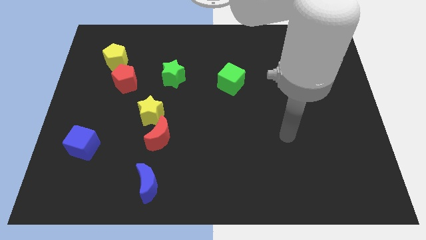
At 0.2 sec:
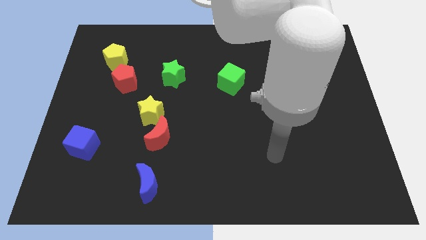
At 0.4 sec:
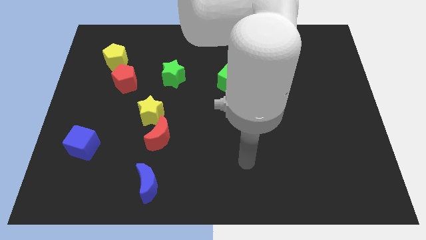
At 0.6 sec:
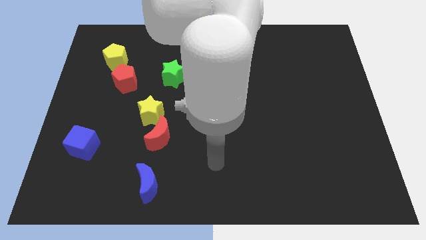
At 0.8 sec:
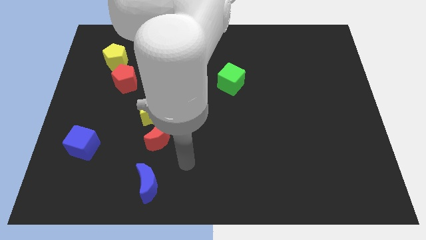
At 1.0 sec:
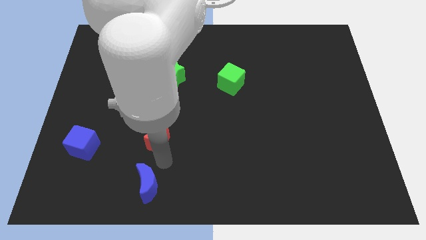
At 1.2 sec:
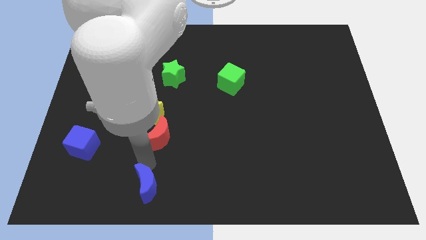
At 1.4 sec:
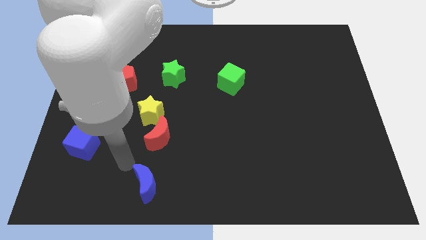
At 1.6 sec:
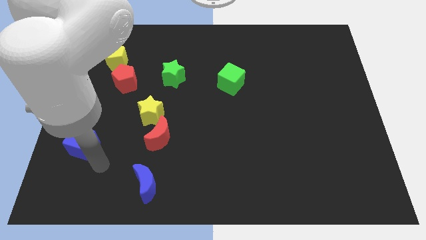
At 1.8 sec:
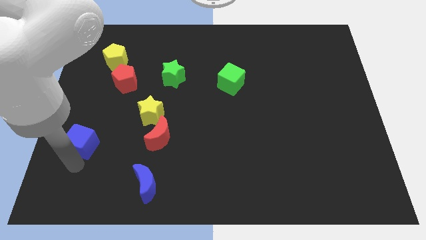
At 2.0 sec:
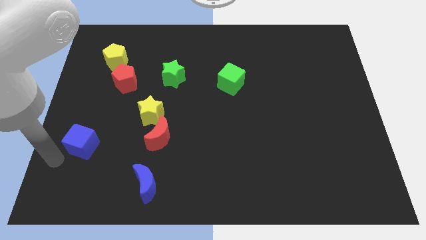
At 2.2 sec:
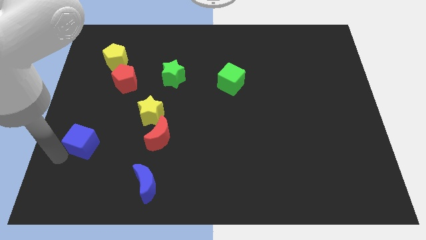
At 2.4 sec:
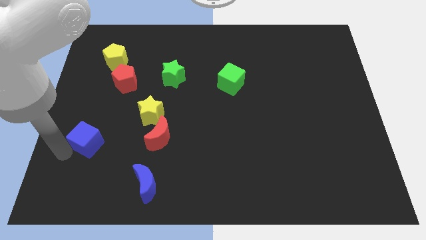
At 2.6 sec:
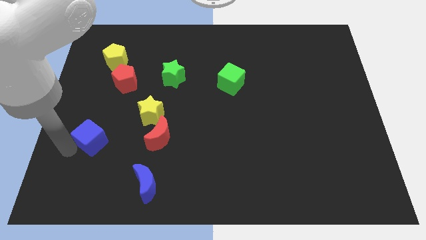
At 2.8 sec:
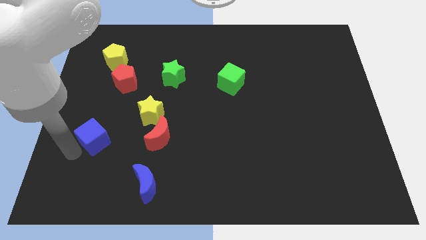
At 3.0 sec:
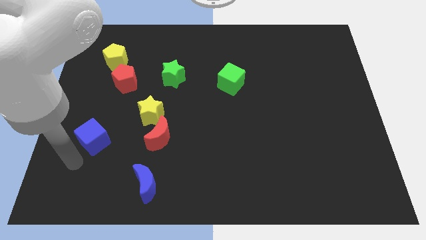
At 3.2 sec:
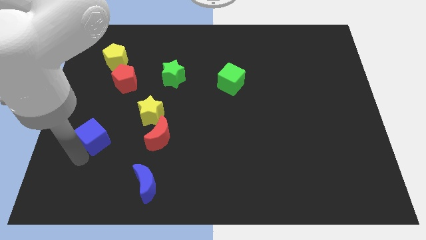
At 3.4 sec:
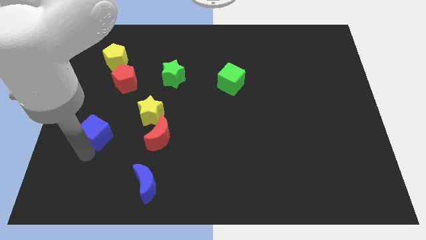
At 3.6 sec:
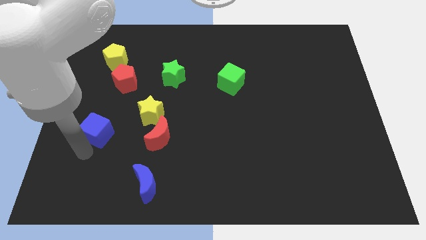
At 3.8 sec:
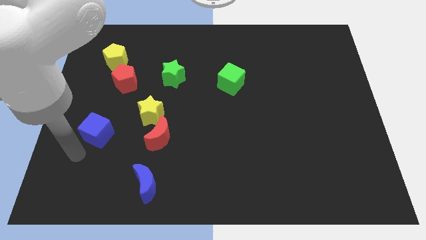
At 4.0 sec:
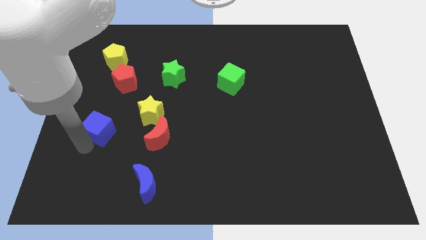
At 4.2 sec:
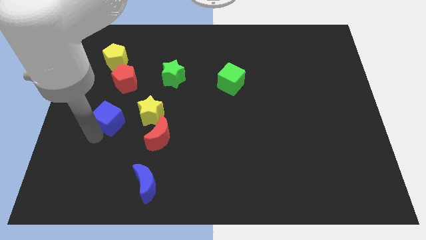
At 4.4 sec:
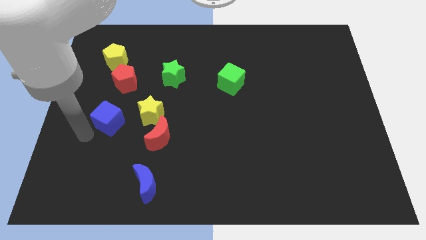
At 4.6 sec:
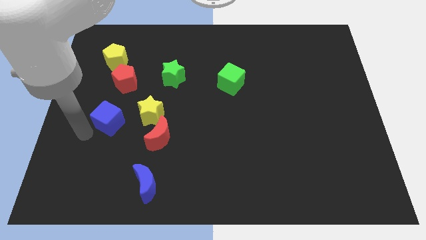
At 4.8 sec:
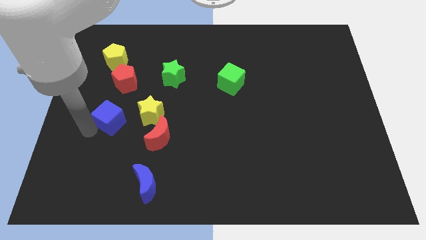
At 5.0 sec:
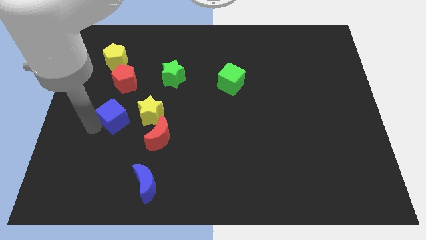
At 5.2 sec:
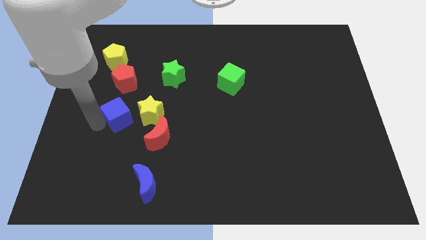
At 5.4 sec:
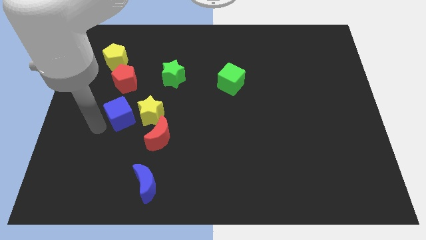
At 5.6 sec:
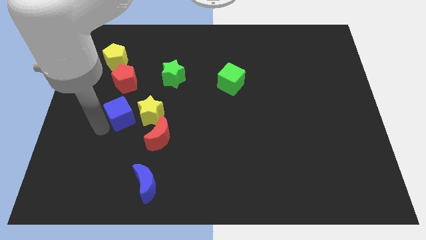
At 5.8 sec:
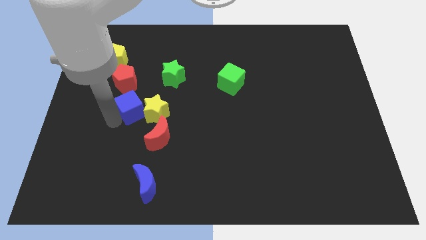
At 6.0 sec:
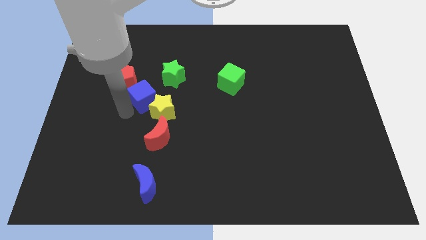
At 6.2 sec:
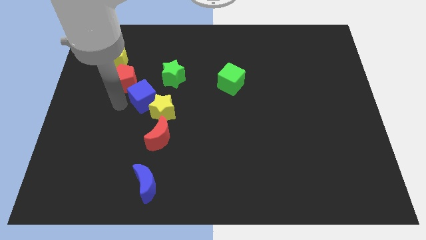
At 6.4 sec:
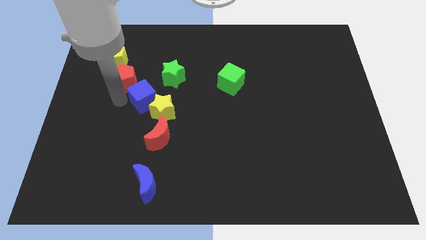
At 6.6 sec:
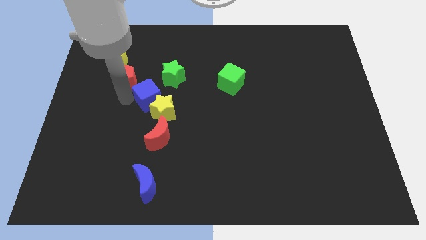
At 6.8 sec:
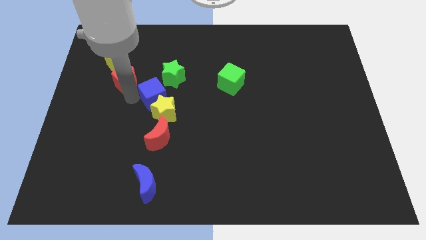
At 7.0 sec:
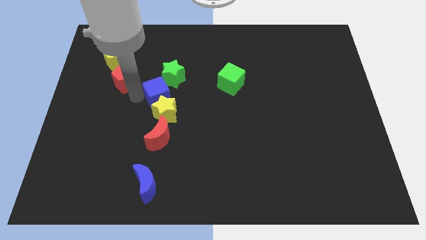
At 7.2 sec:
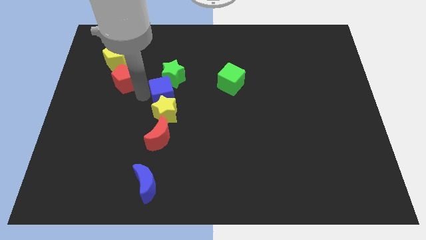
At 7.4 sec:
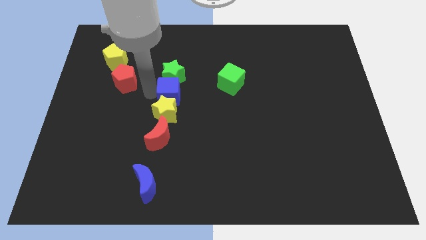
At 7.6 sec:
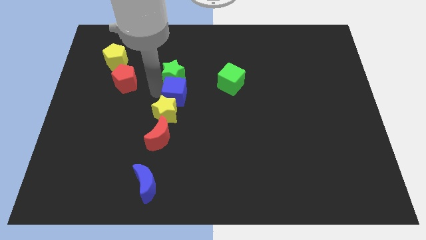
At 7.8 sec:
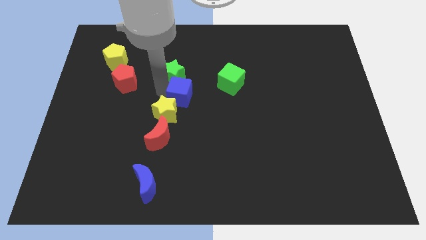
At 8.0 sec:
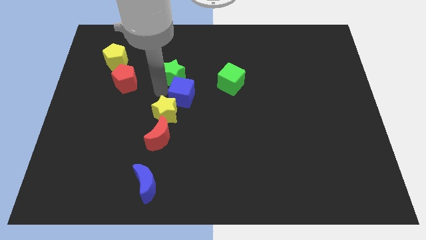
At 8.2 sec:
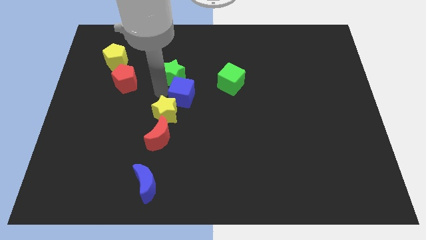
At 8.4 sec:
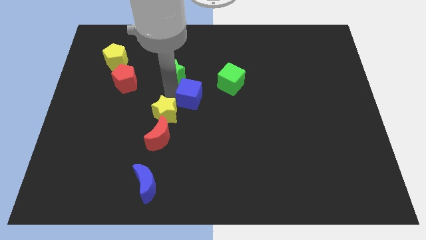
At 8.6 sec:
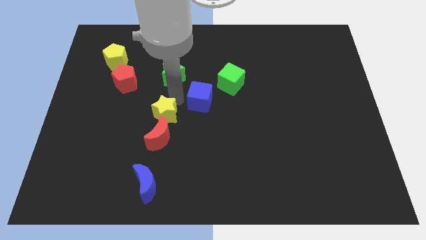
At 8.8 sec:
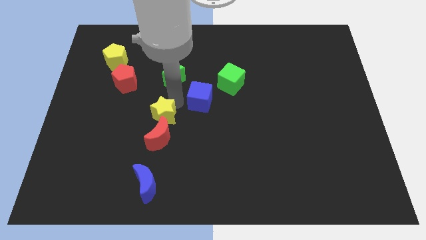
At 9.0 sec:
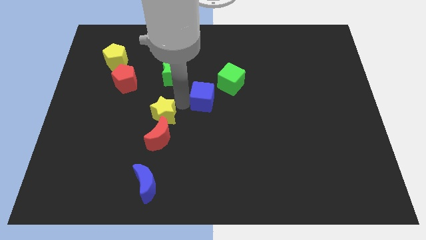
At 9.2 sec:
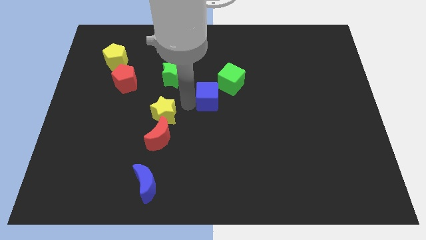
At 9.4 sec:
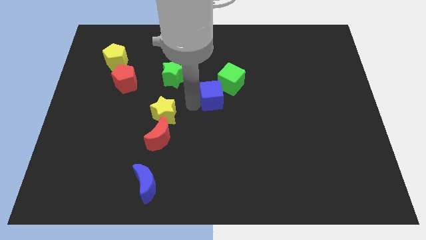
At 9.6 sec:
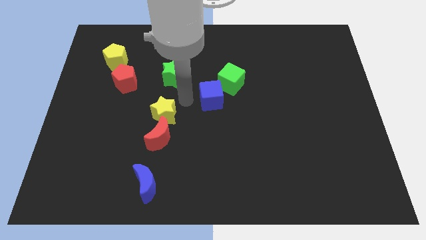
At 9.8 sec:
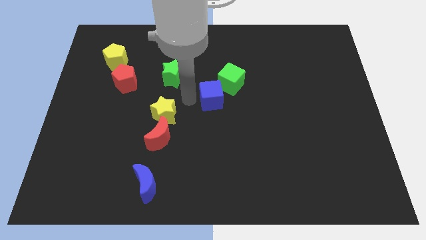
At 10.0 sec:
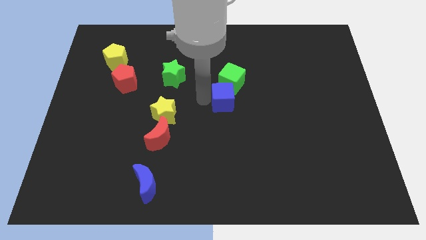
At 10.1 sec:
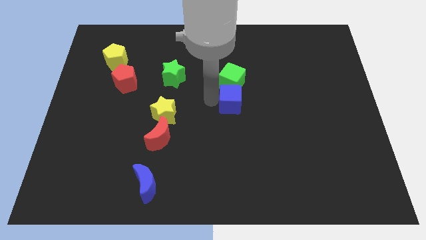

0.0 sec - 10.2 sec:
slide the blue cube to the bottom right side of the green cube

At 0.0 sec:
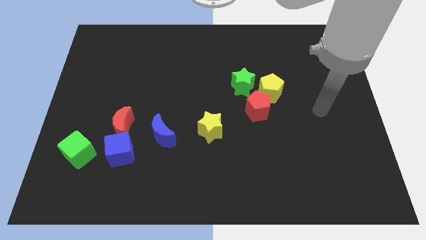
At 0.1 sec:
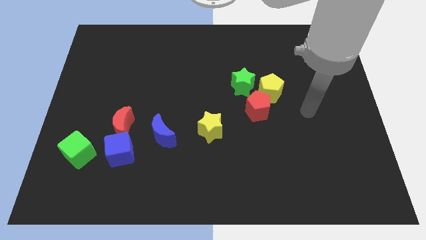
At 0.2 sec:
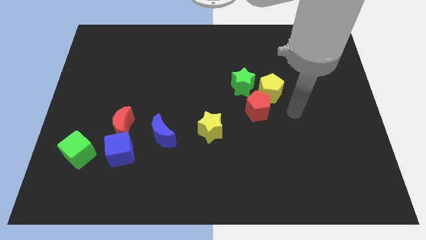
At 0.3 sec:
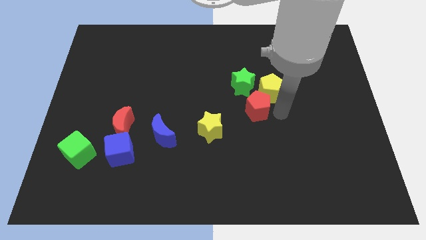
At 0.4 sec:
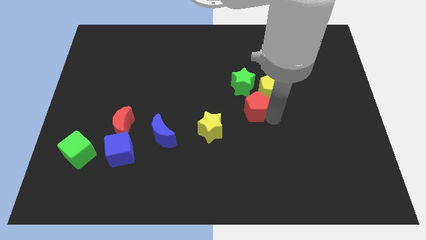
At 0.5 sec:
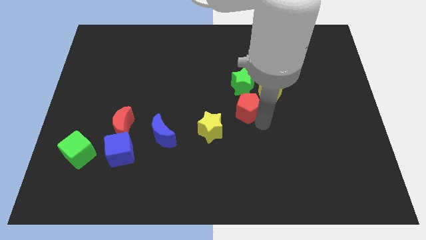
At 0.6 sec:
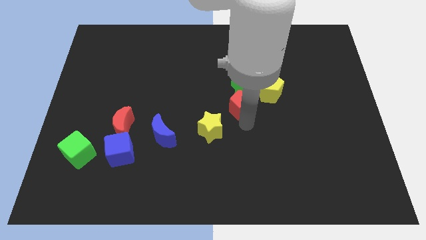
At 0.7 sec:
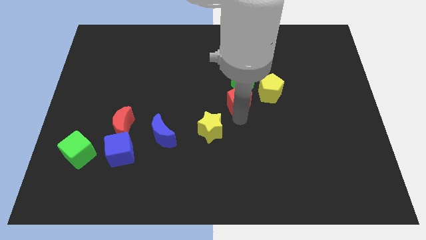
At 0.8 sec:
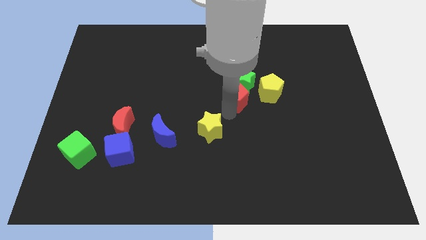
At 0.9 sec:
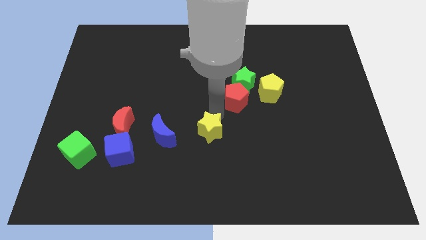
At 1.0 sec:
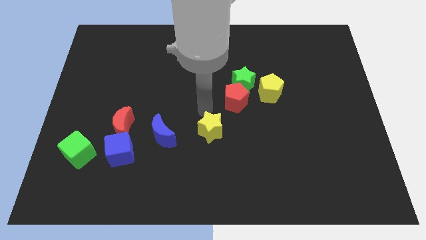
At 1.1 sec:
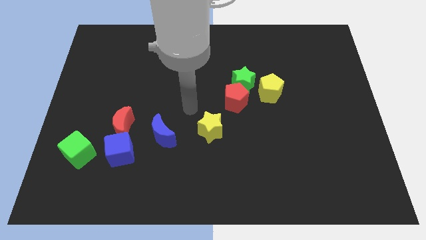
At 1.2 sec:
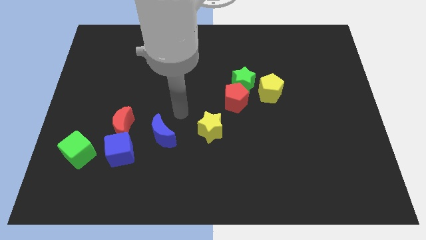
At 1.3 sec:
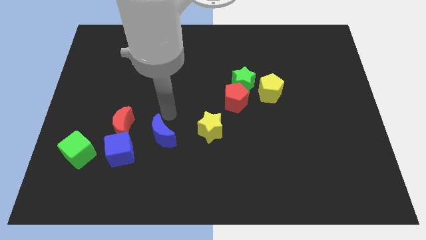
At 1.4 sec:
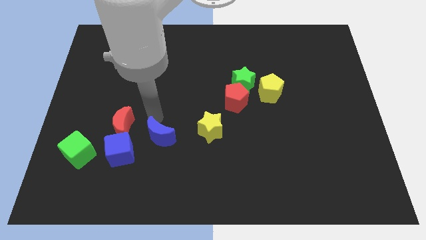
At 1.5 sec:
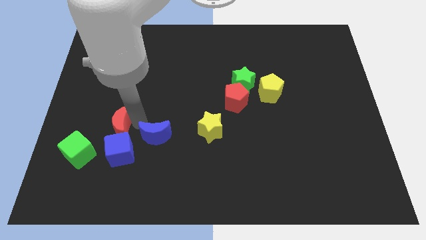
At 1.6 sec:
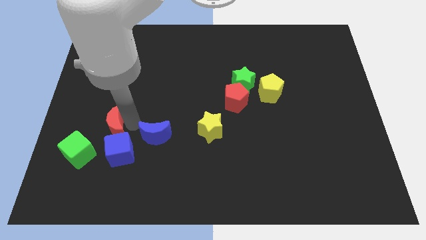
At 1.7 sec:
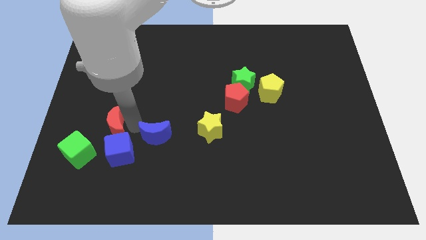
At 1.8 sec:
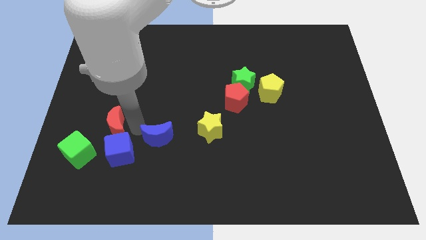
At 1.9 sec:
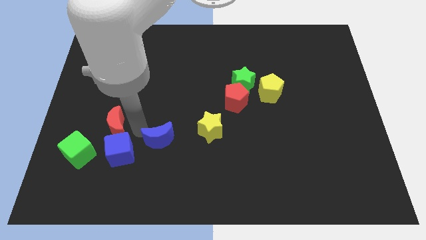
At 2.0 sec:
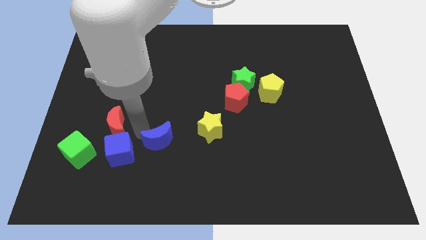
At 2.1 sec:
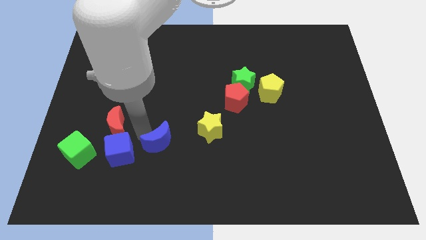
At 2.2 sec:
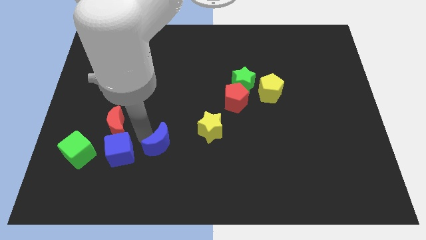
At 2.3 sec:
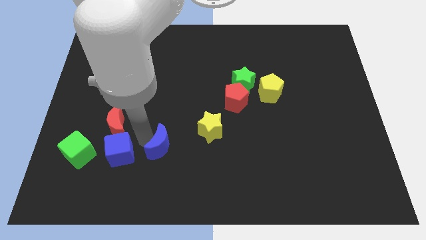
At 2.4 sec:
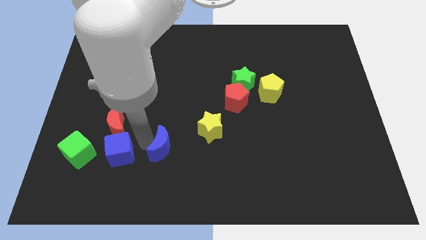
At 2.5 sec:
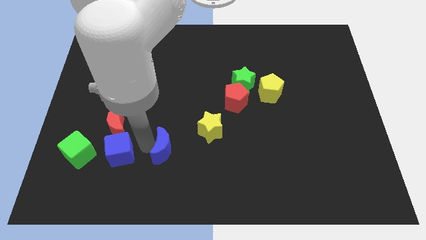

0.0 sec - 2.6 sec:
push the blue moon to the bottom left of the yellow star
